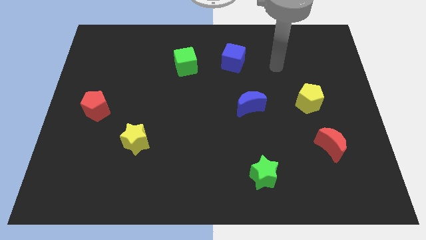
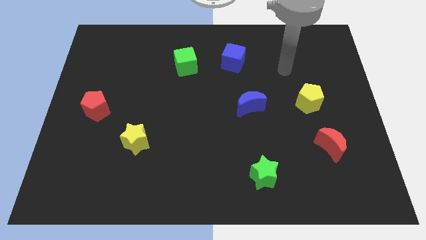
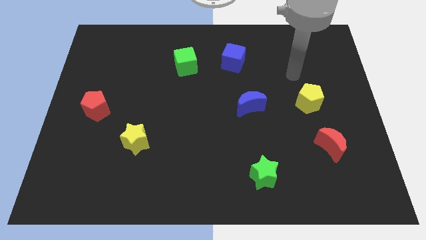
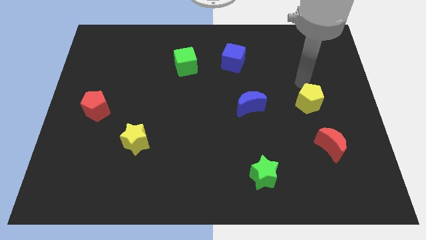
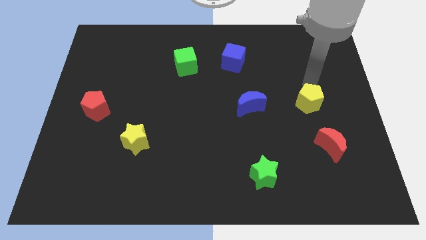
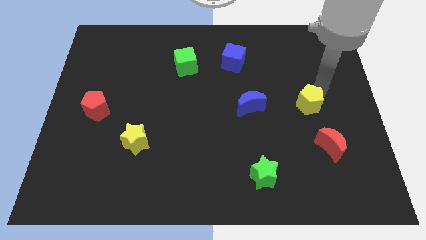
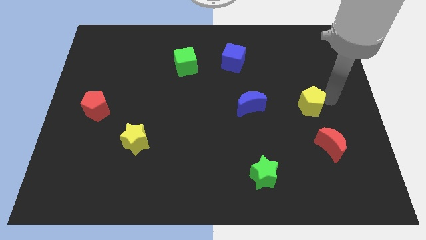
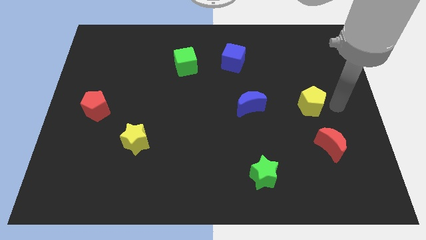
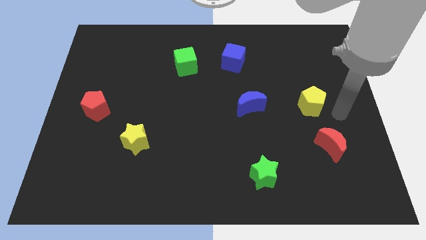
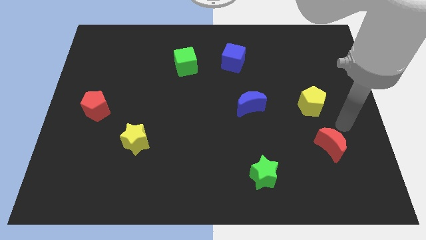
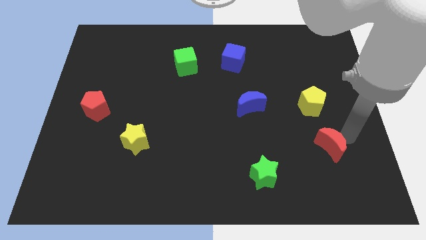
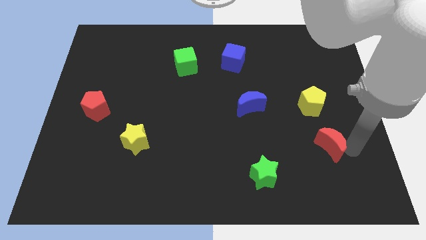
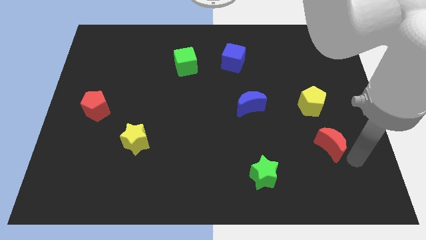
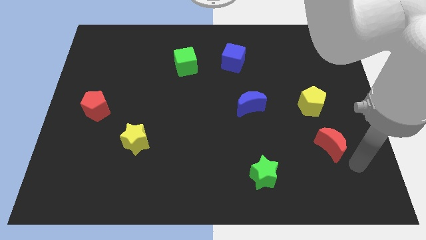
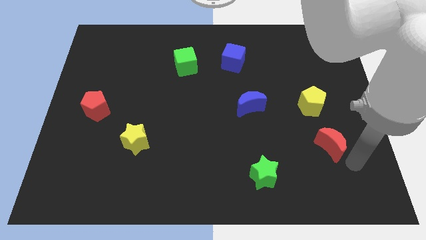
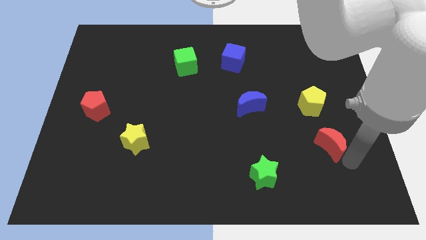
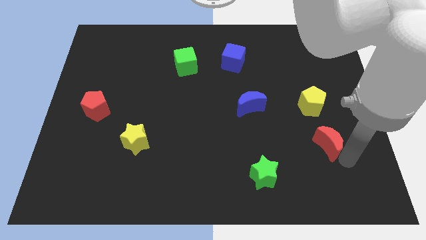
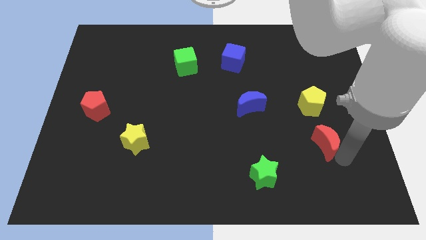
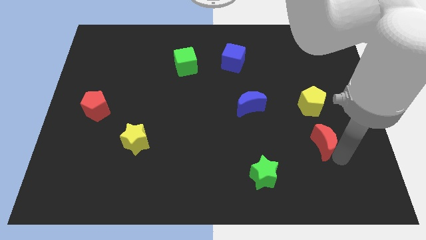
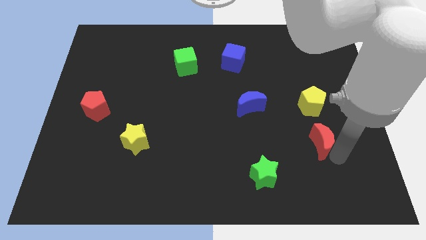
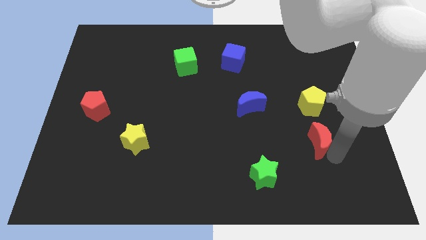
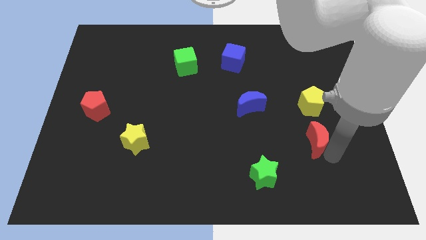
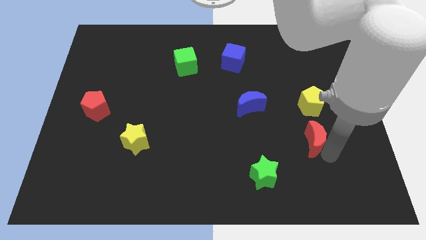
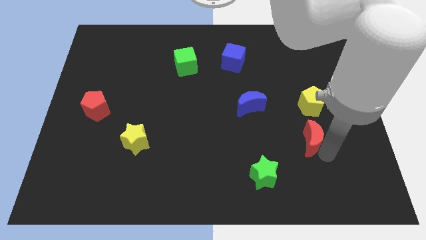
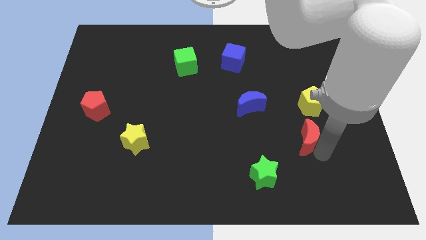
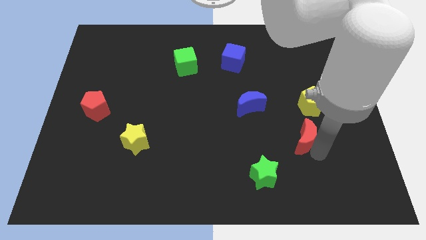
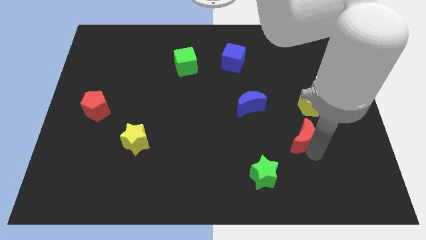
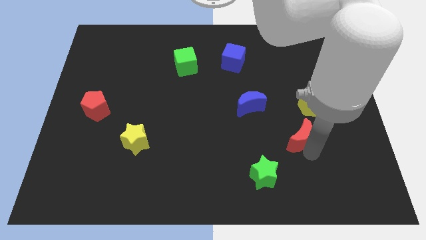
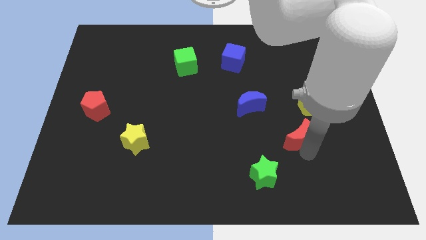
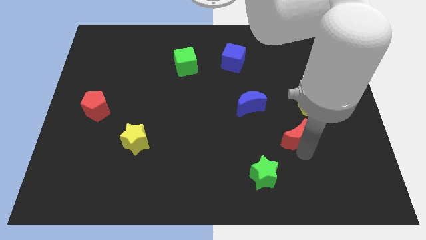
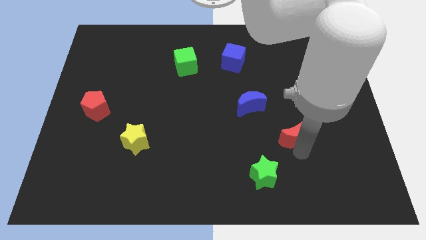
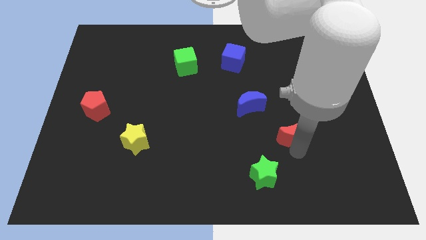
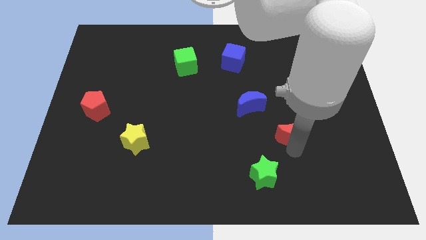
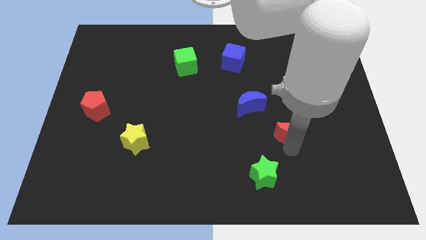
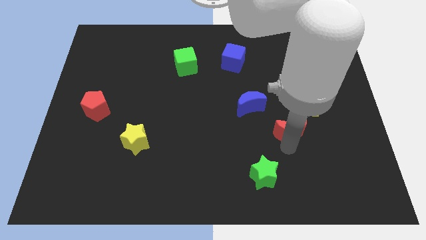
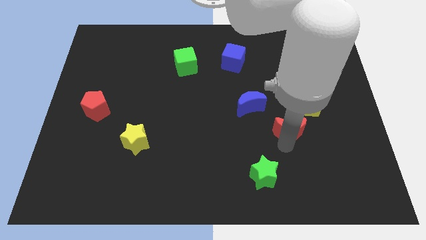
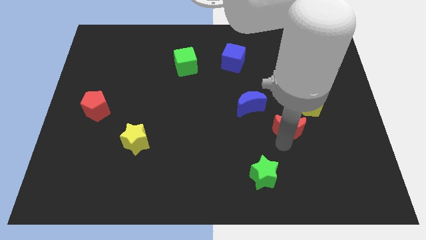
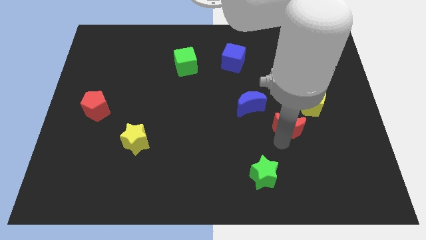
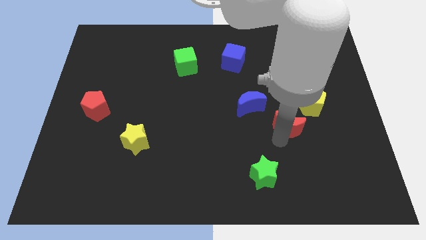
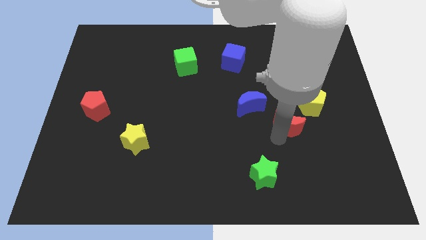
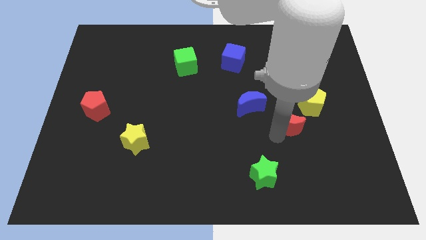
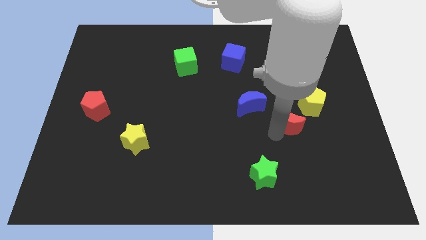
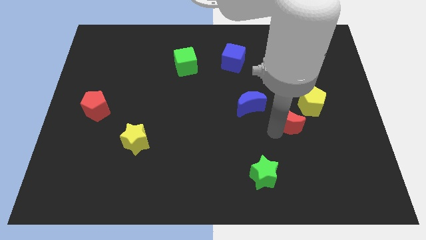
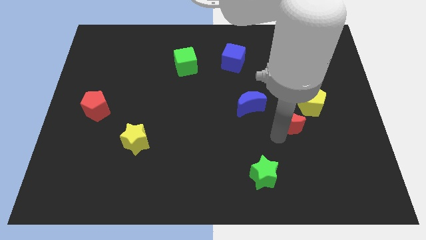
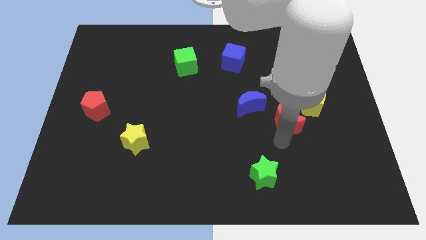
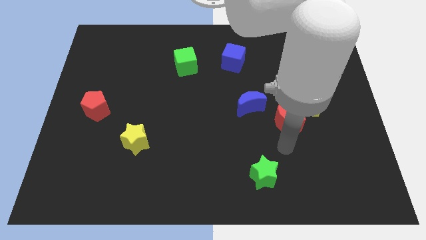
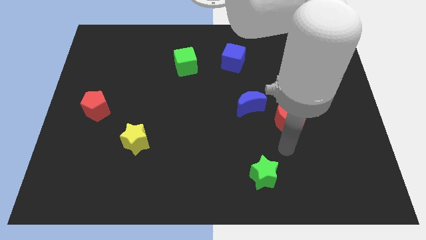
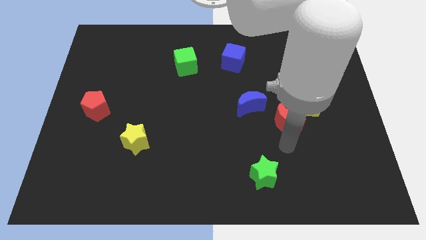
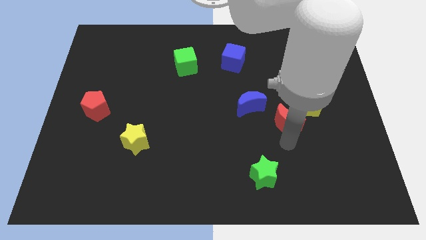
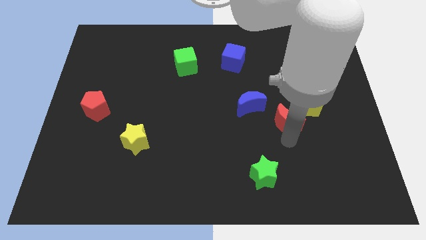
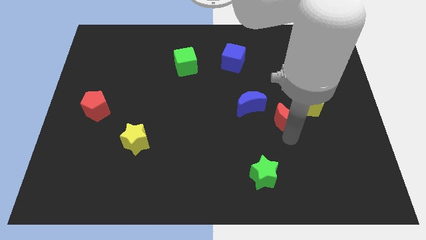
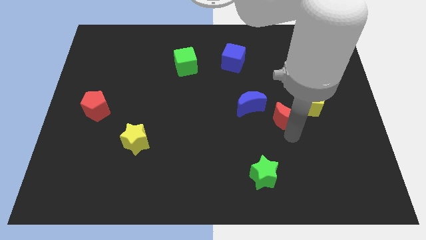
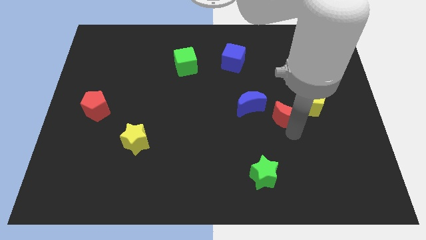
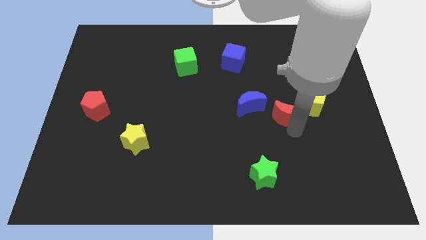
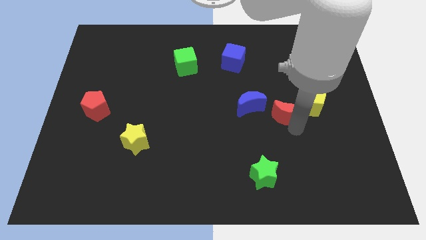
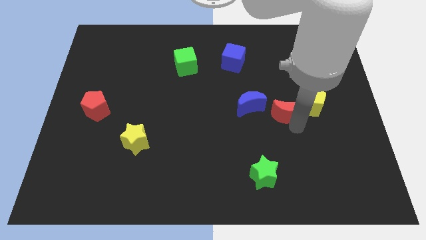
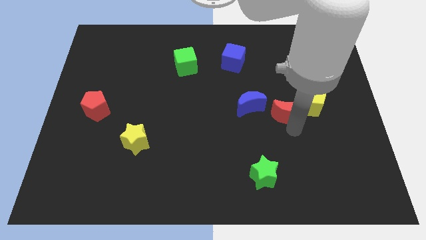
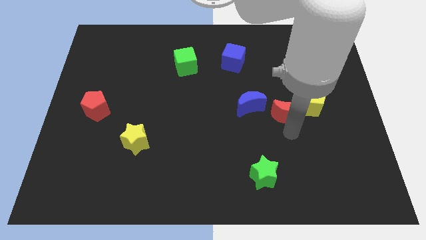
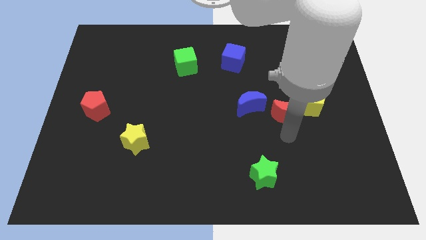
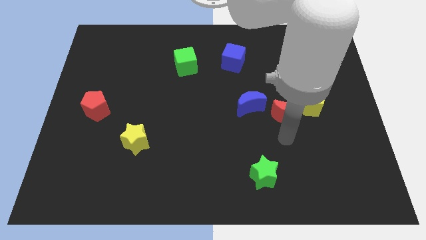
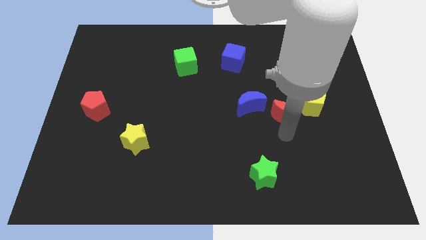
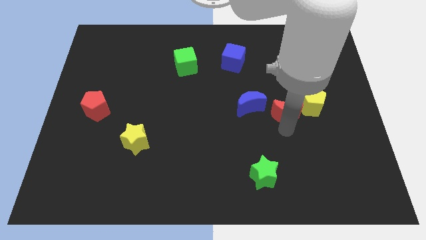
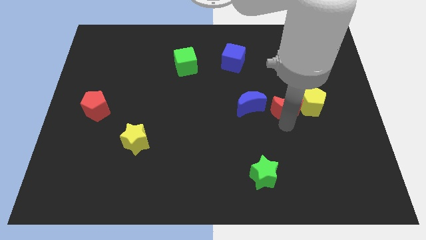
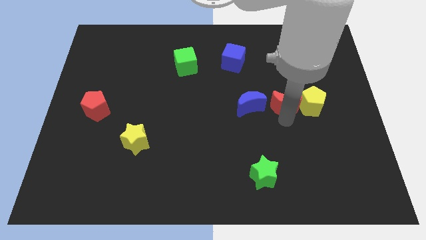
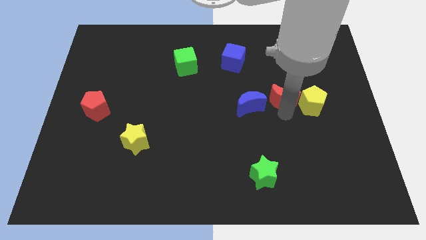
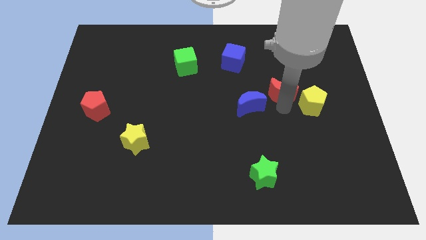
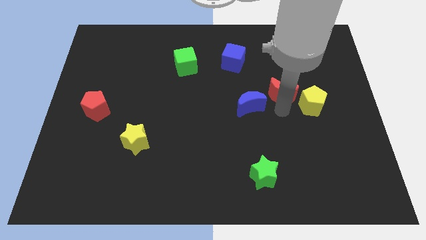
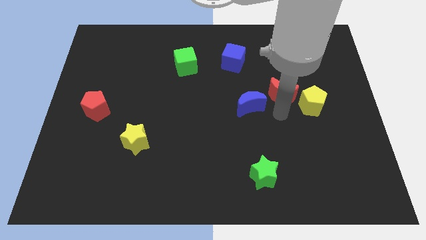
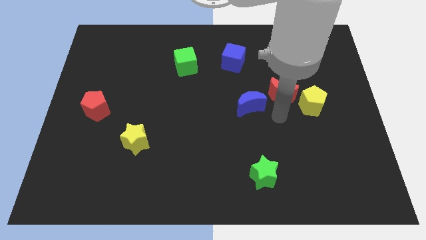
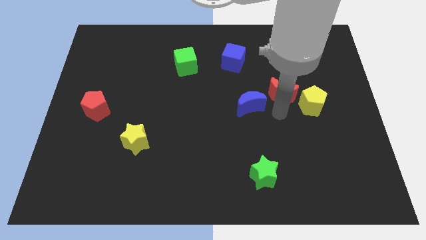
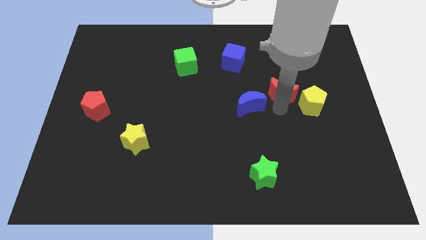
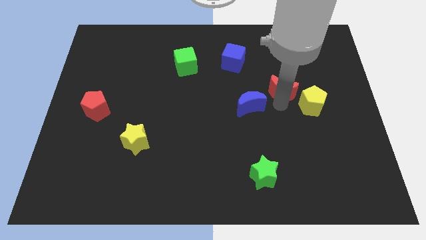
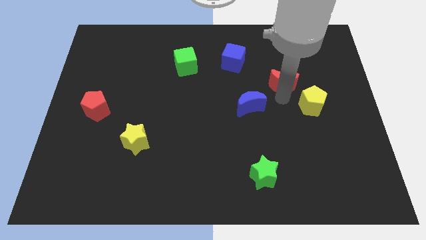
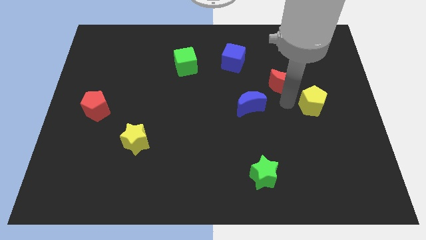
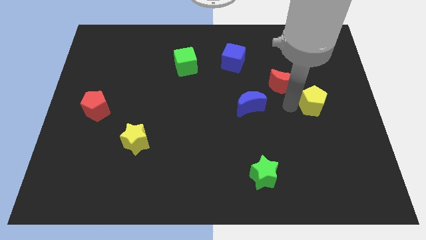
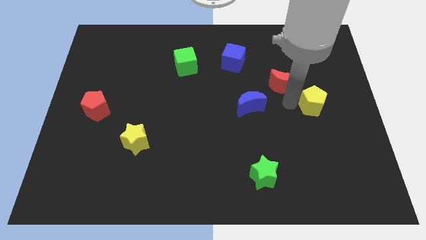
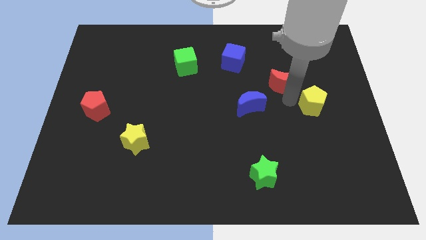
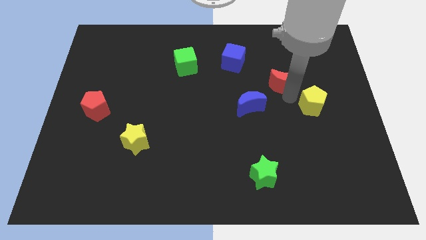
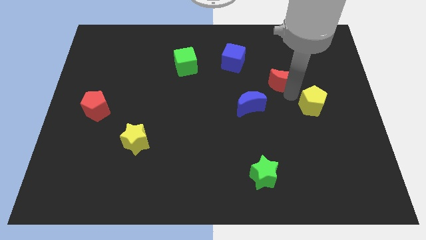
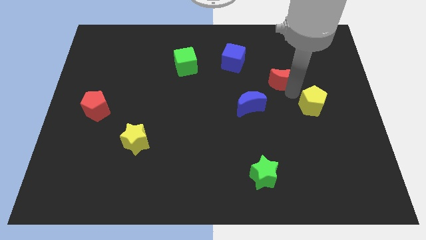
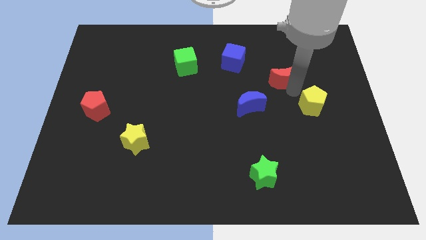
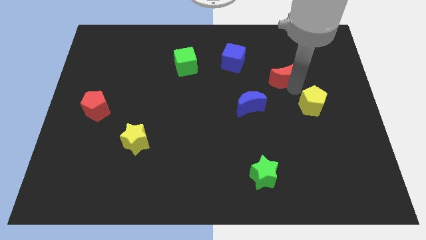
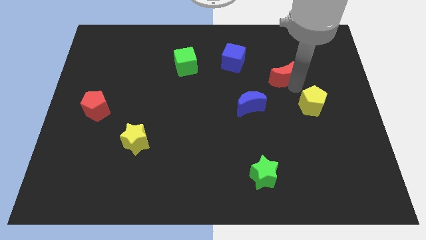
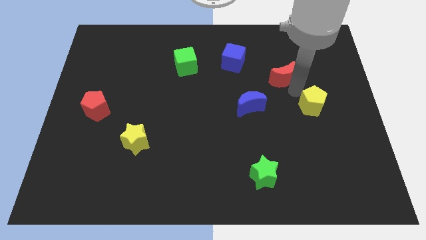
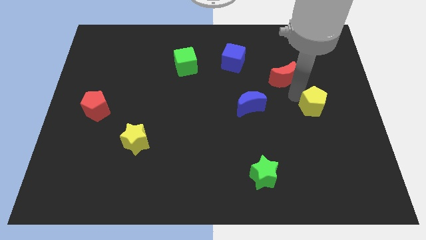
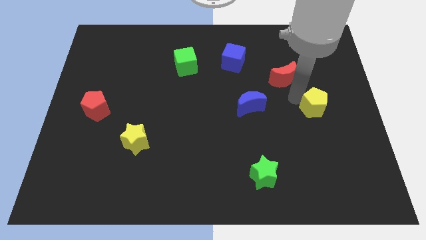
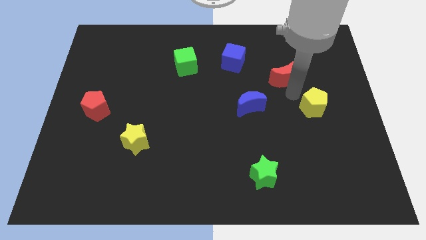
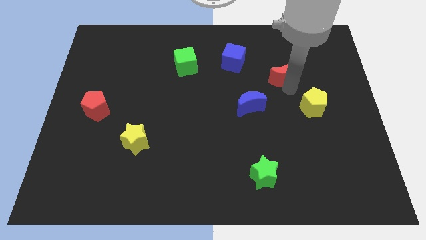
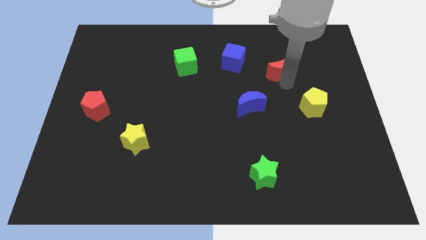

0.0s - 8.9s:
put the red moon just right of the blue cube
